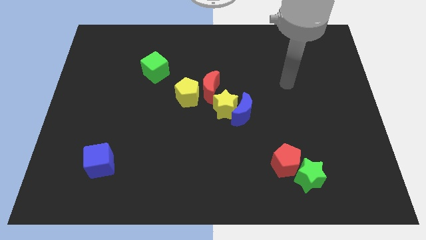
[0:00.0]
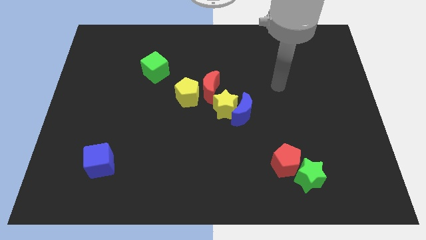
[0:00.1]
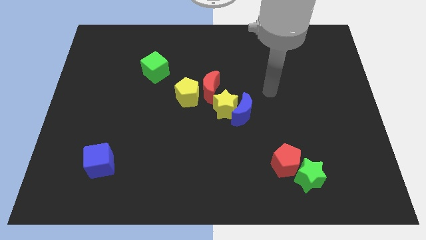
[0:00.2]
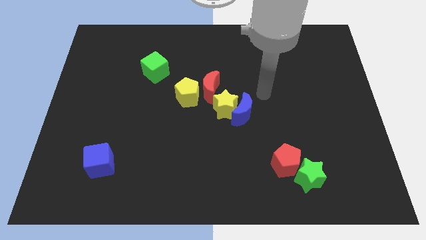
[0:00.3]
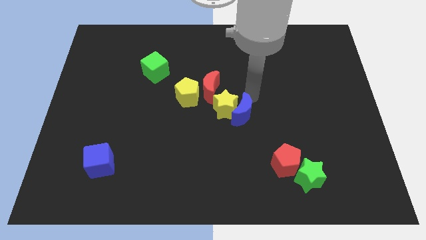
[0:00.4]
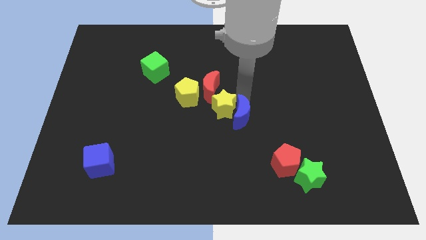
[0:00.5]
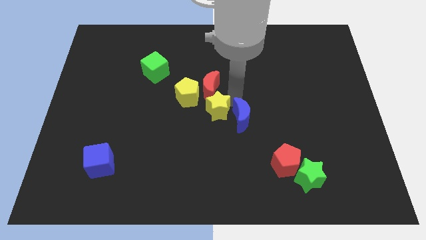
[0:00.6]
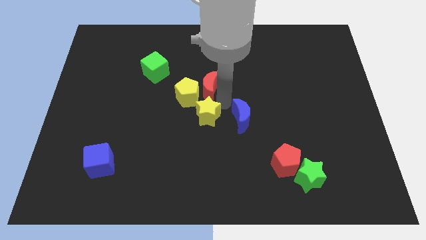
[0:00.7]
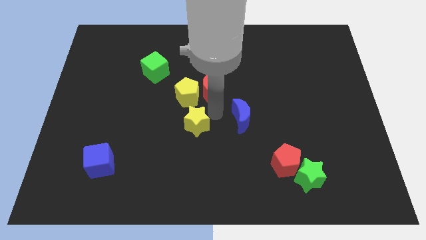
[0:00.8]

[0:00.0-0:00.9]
pull the blue moon apart from the yellow star

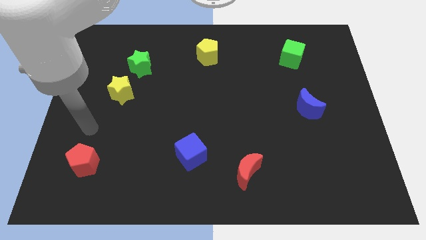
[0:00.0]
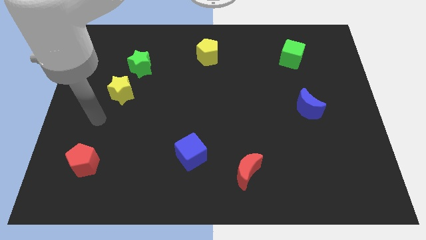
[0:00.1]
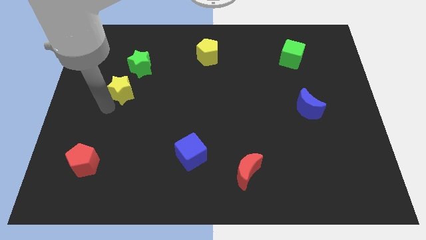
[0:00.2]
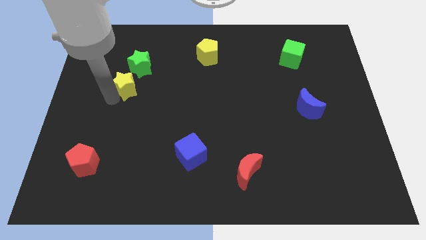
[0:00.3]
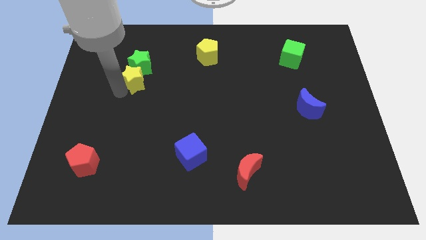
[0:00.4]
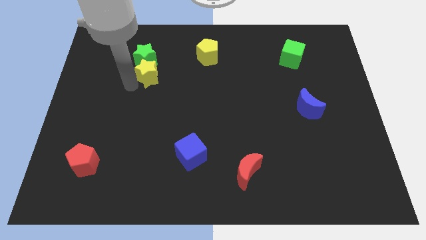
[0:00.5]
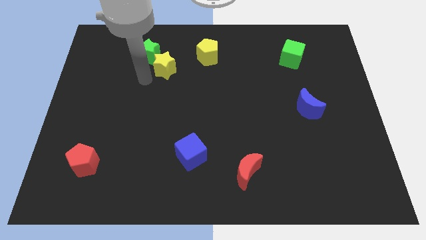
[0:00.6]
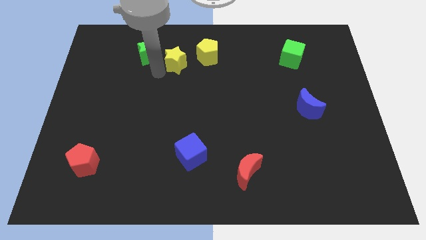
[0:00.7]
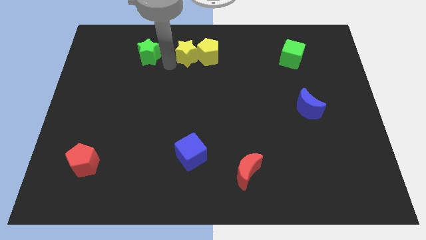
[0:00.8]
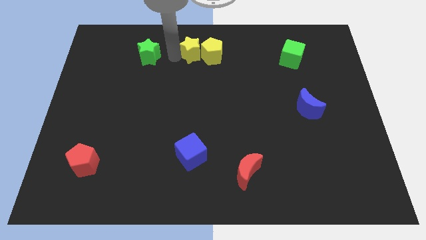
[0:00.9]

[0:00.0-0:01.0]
separate the green star from the yellow star

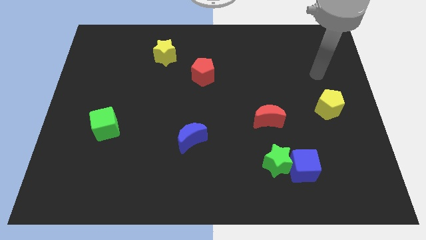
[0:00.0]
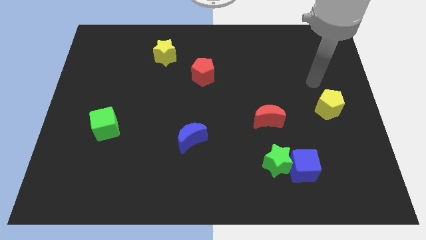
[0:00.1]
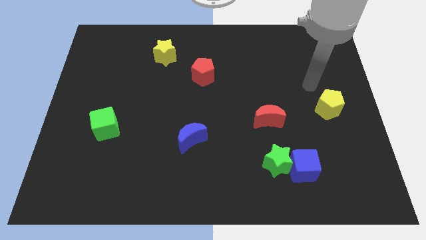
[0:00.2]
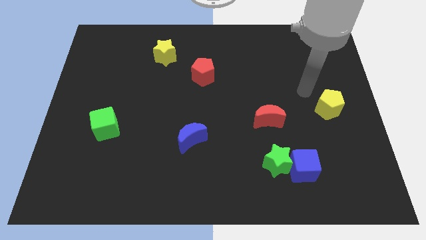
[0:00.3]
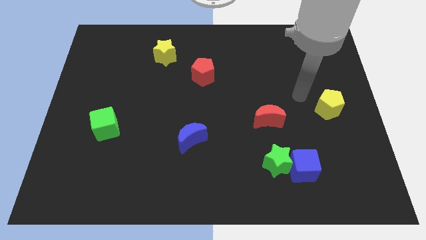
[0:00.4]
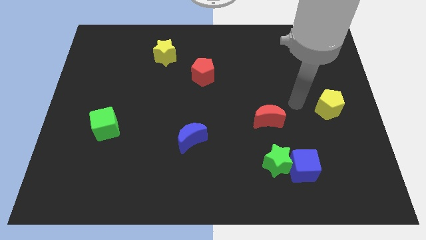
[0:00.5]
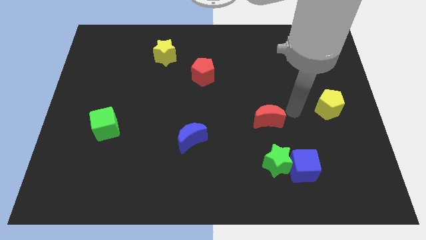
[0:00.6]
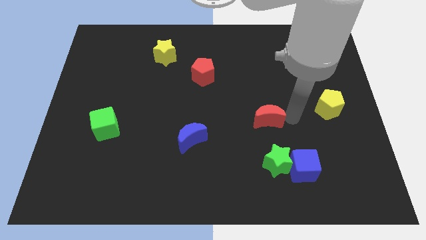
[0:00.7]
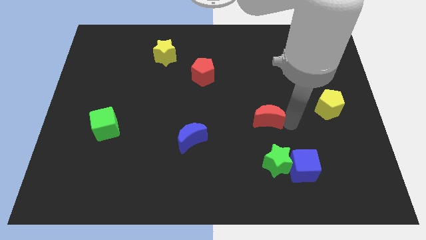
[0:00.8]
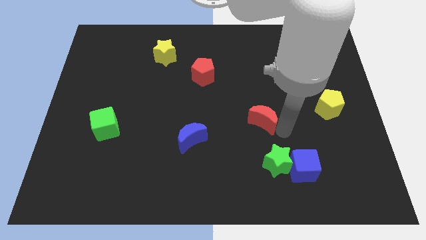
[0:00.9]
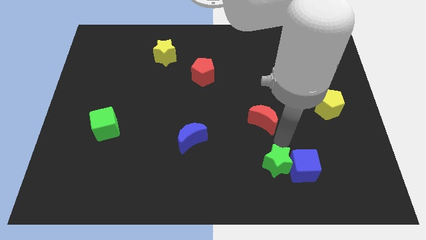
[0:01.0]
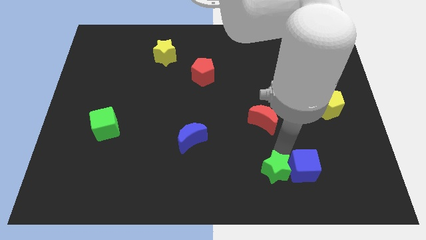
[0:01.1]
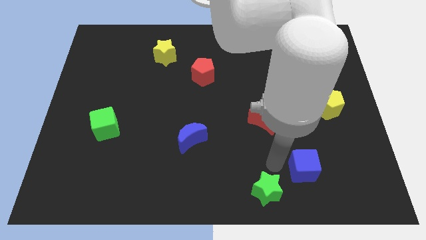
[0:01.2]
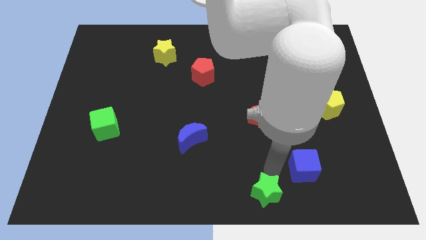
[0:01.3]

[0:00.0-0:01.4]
separate the blue cube from the green star

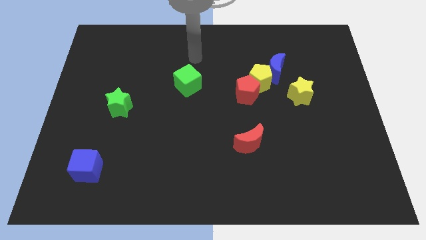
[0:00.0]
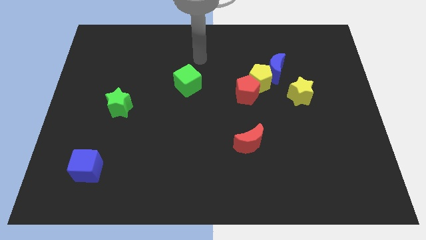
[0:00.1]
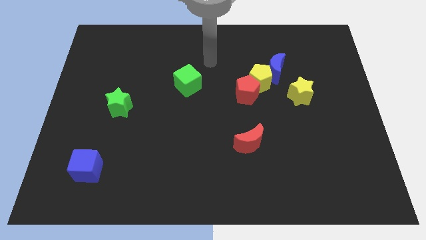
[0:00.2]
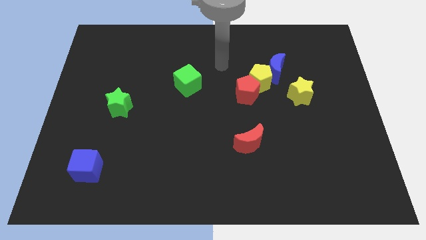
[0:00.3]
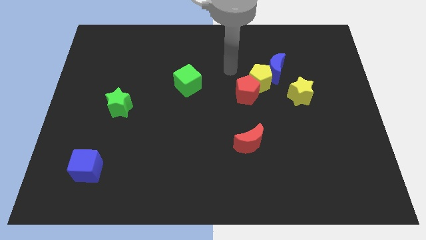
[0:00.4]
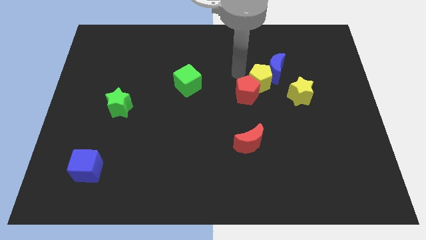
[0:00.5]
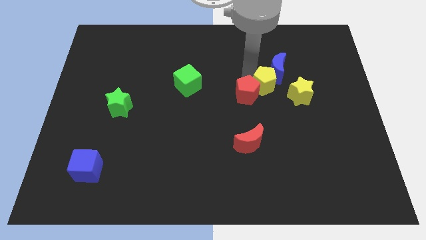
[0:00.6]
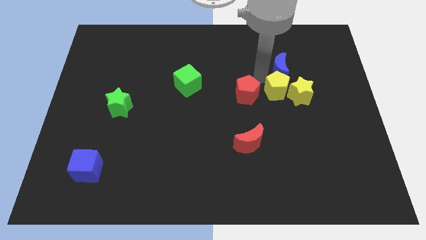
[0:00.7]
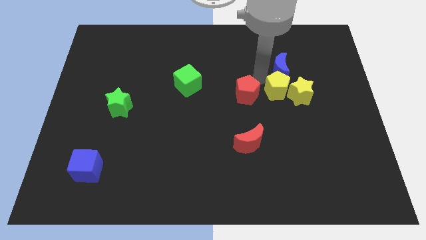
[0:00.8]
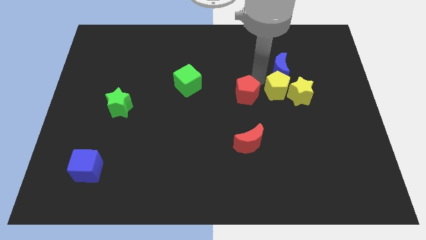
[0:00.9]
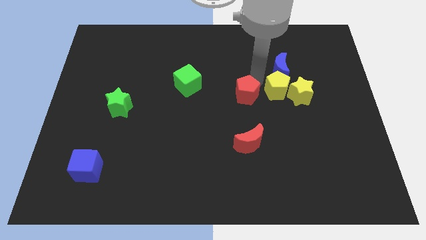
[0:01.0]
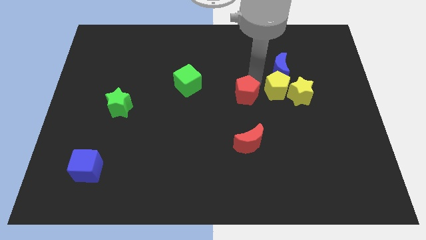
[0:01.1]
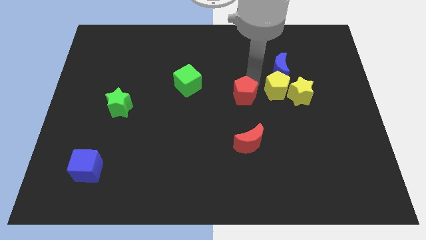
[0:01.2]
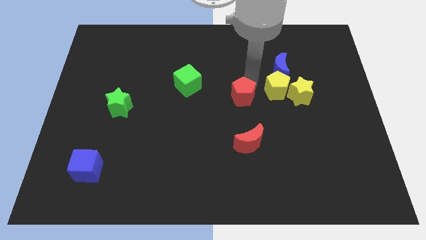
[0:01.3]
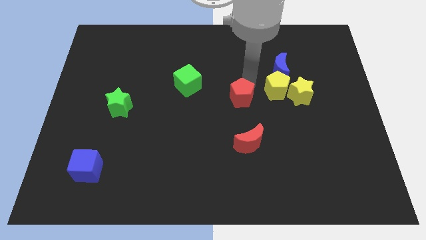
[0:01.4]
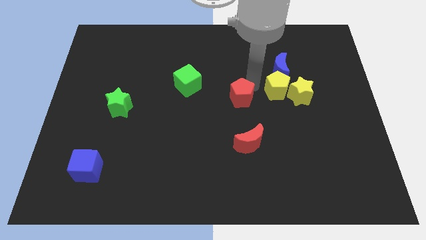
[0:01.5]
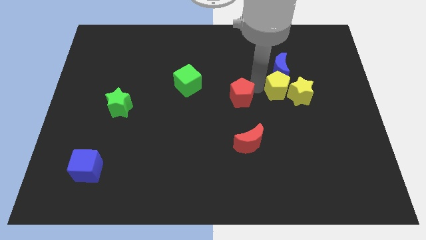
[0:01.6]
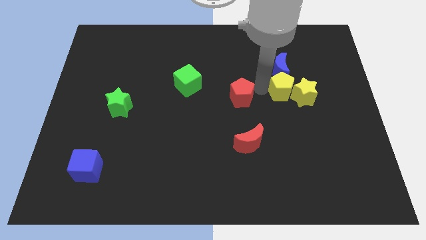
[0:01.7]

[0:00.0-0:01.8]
pull the red pentagon apart from the yellow pentagon

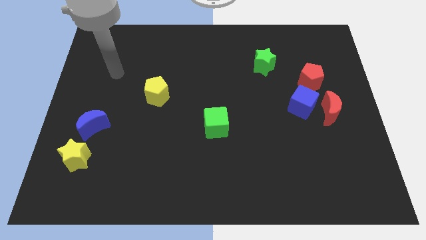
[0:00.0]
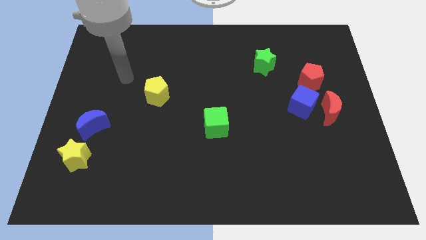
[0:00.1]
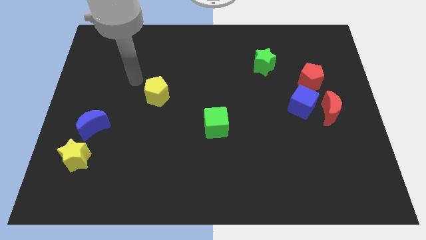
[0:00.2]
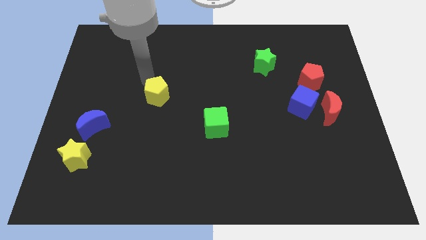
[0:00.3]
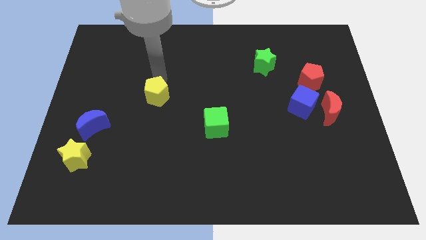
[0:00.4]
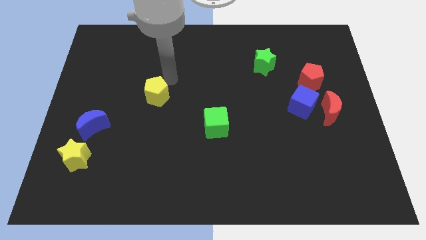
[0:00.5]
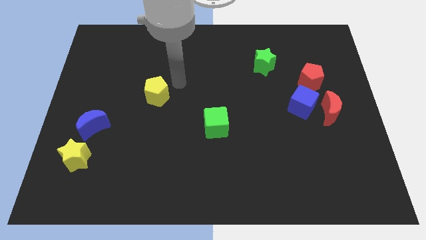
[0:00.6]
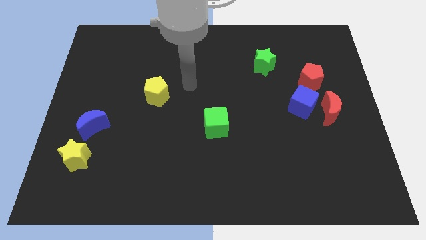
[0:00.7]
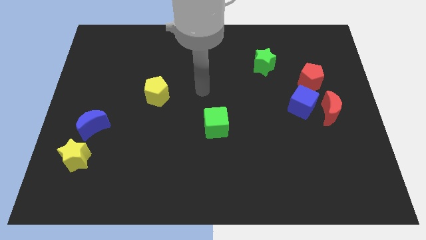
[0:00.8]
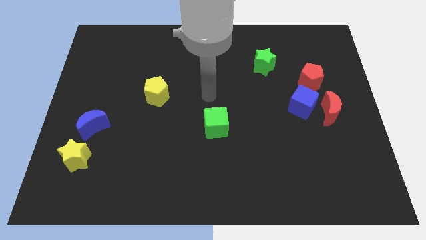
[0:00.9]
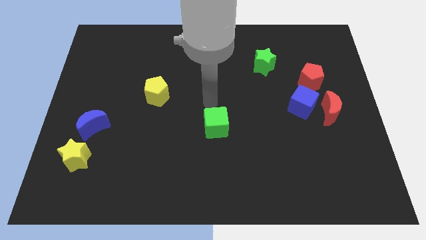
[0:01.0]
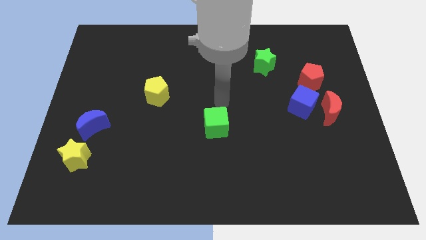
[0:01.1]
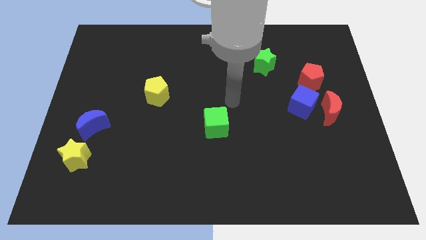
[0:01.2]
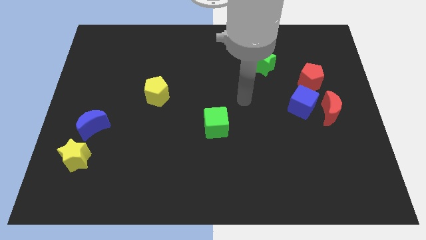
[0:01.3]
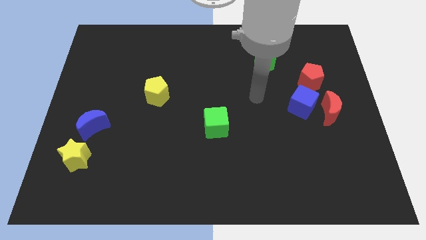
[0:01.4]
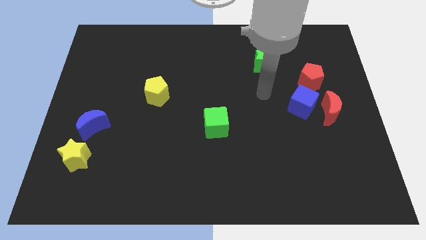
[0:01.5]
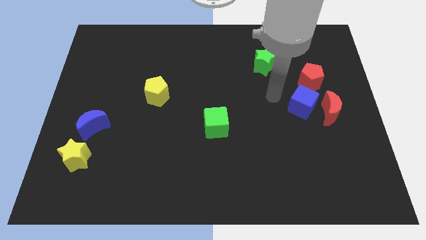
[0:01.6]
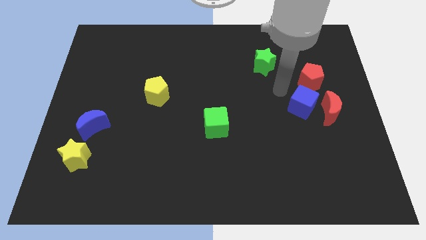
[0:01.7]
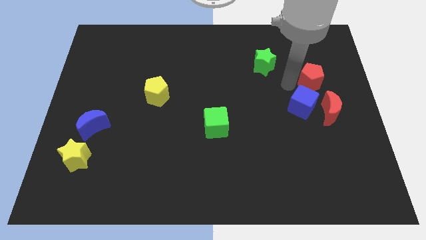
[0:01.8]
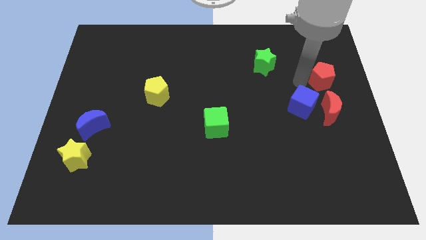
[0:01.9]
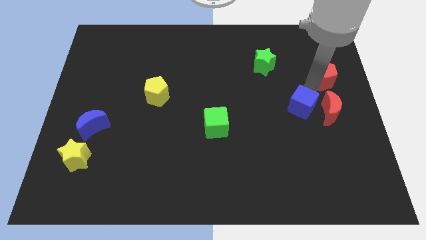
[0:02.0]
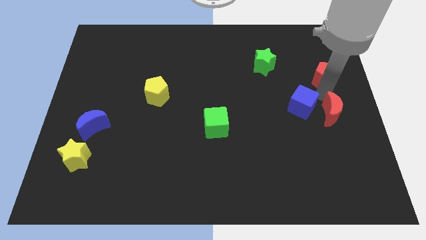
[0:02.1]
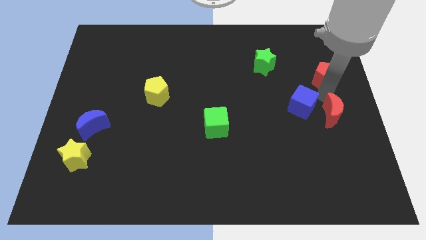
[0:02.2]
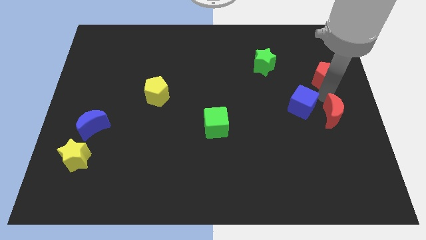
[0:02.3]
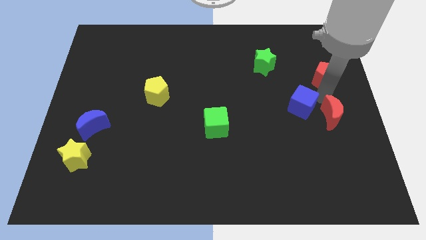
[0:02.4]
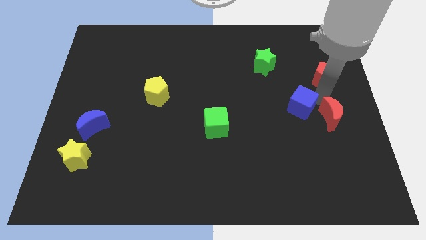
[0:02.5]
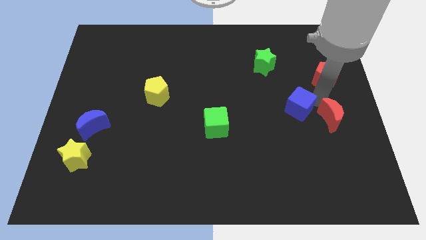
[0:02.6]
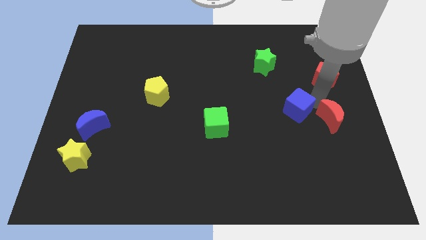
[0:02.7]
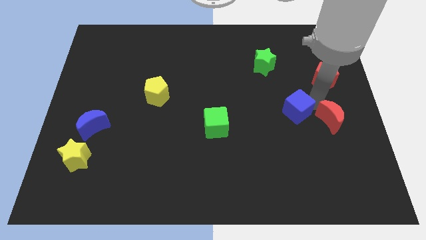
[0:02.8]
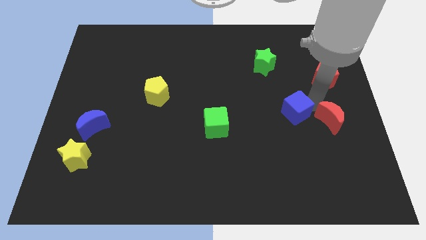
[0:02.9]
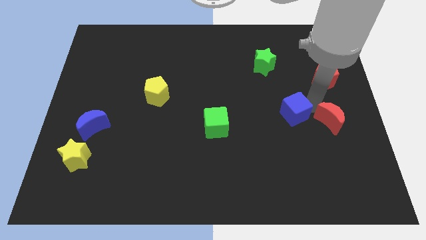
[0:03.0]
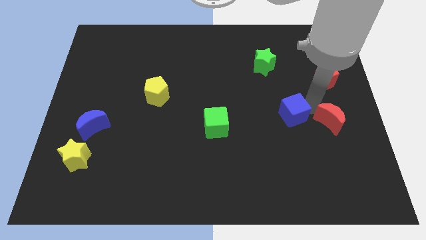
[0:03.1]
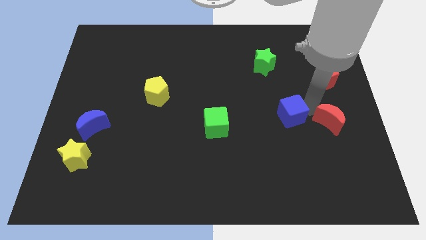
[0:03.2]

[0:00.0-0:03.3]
pull the blue cube apart from the red moon and red pentagon

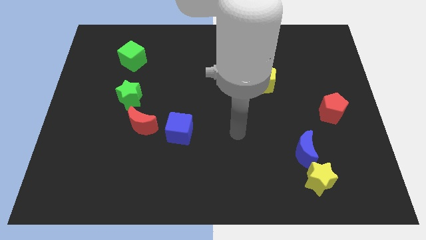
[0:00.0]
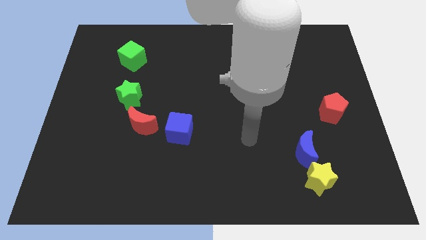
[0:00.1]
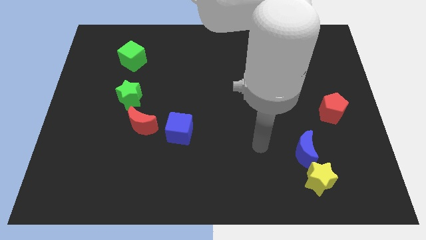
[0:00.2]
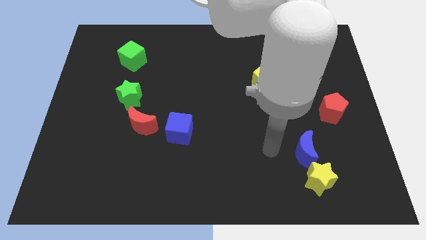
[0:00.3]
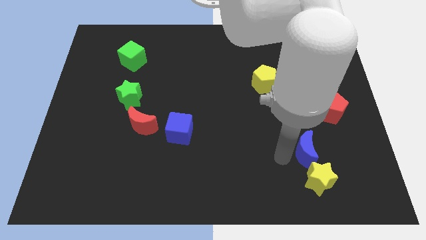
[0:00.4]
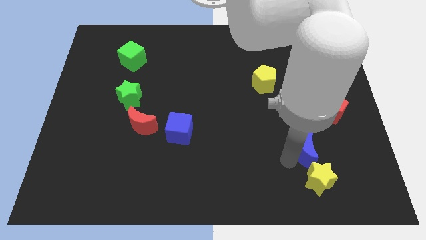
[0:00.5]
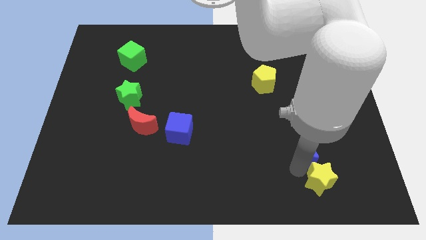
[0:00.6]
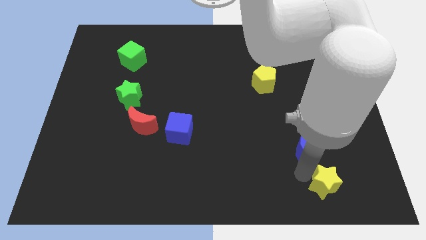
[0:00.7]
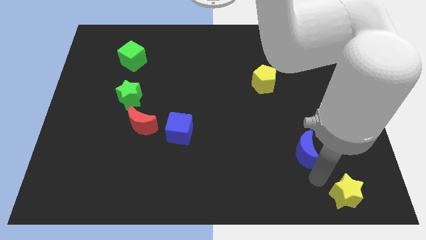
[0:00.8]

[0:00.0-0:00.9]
move the blue moon away from the yellow star
